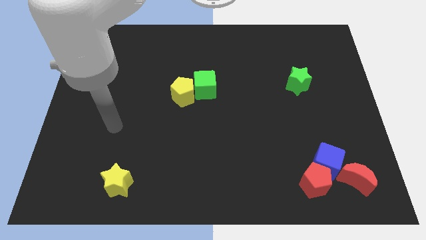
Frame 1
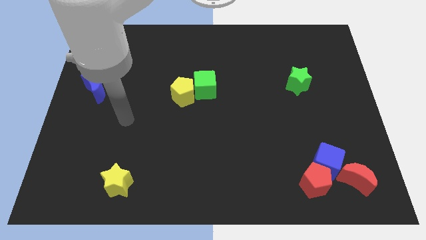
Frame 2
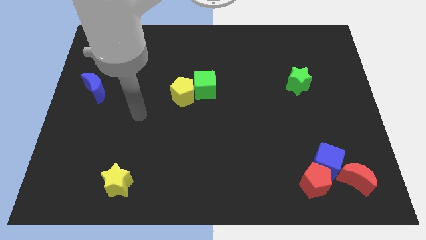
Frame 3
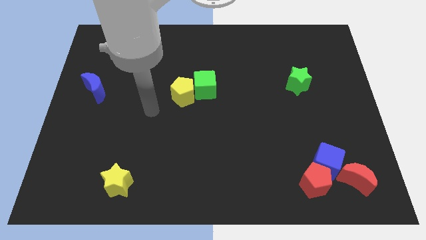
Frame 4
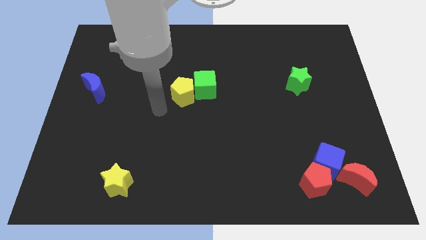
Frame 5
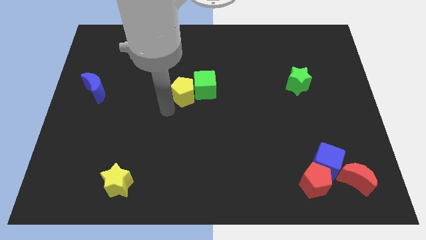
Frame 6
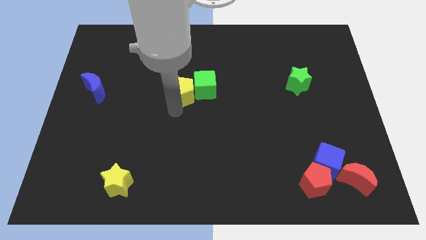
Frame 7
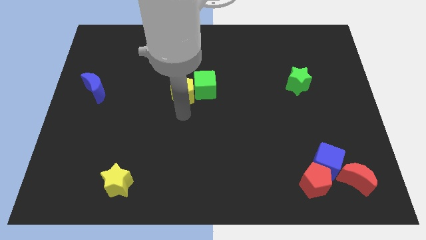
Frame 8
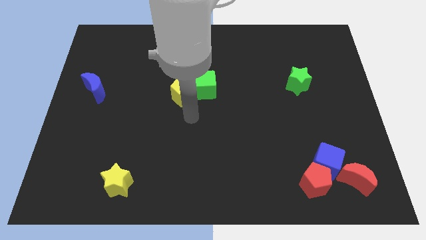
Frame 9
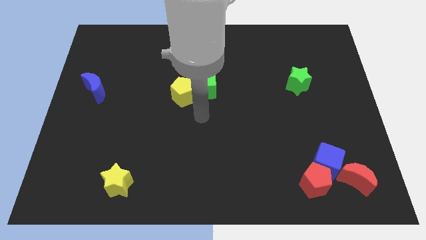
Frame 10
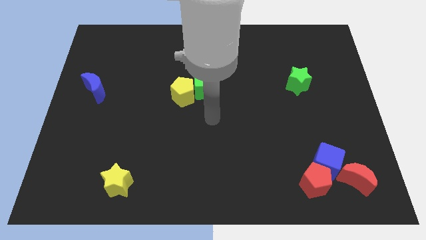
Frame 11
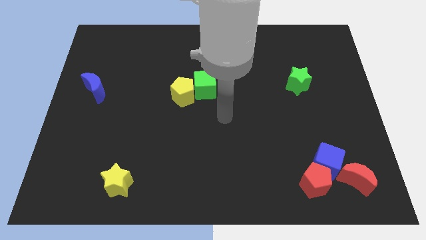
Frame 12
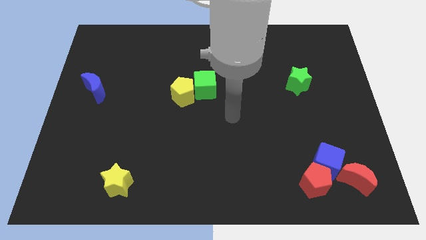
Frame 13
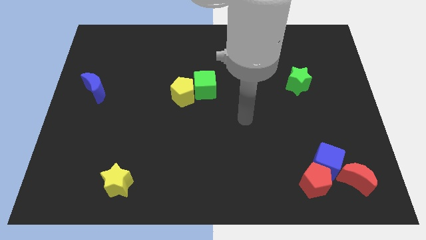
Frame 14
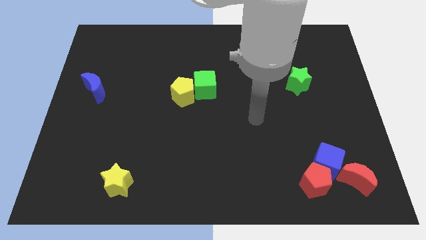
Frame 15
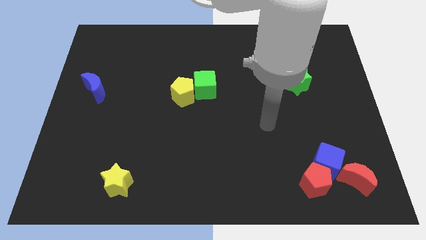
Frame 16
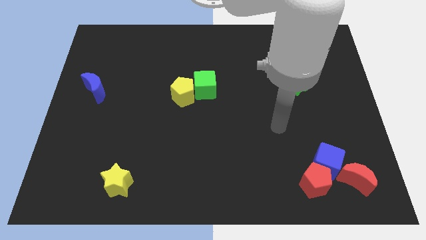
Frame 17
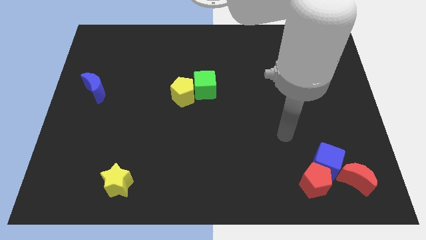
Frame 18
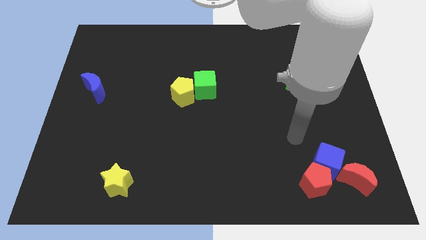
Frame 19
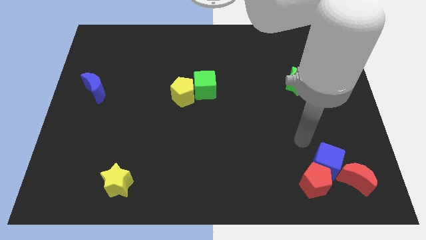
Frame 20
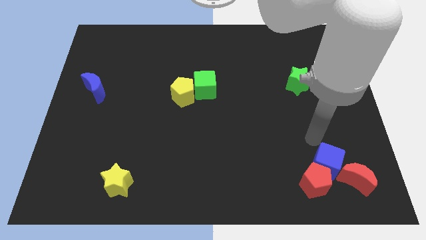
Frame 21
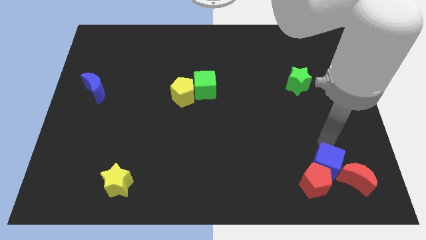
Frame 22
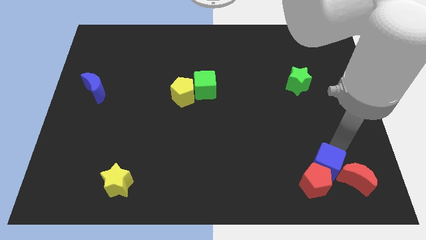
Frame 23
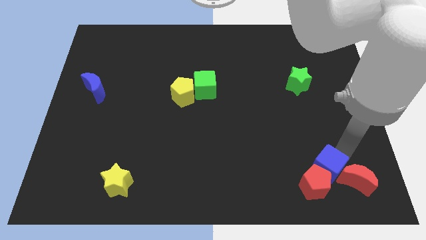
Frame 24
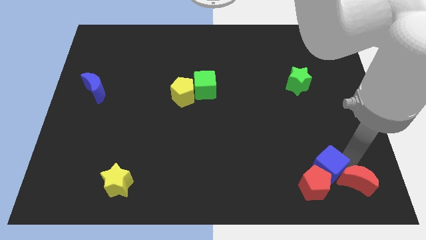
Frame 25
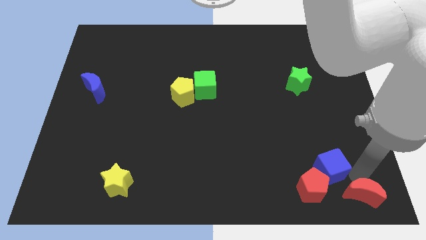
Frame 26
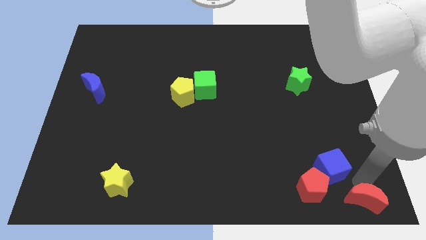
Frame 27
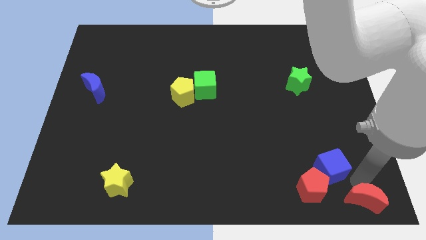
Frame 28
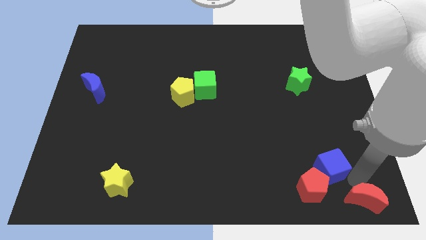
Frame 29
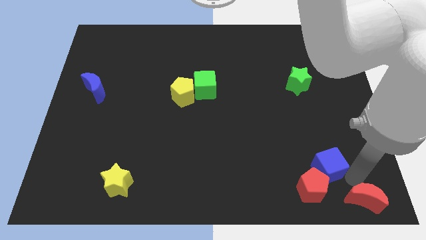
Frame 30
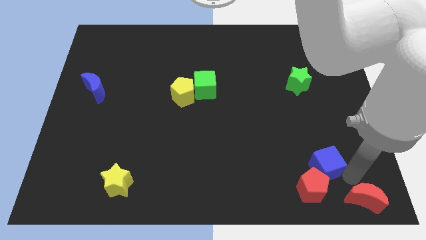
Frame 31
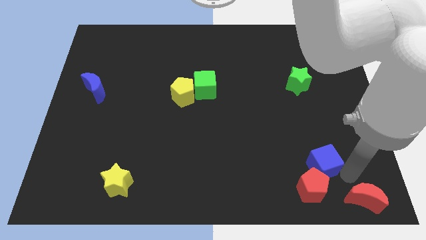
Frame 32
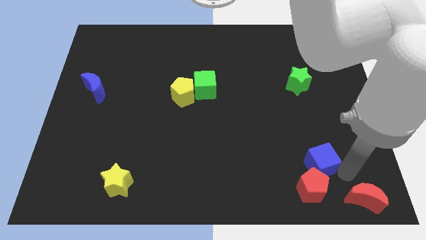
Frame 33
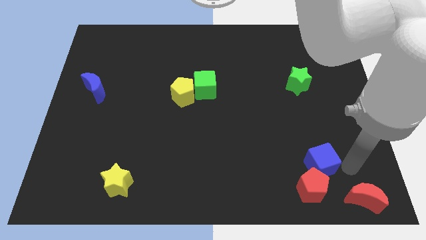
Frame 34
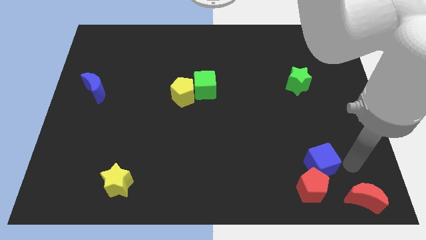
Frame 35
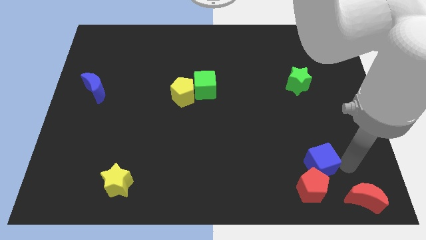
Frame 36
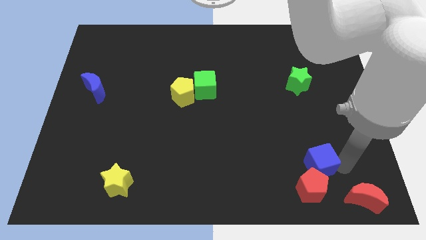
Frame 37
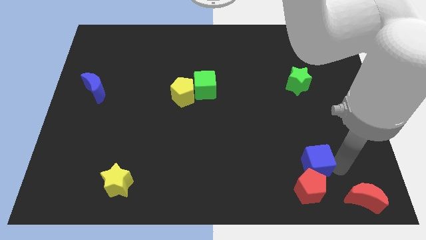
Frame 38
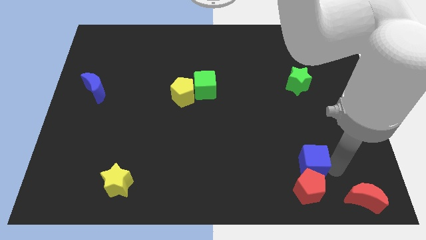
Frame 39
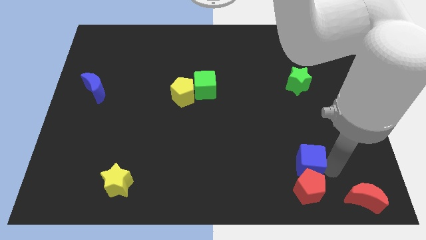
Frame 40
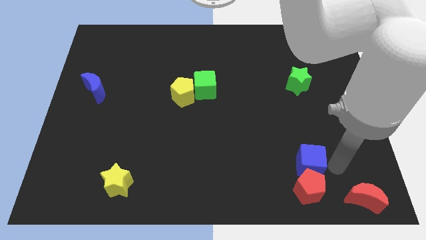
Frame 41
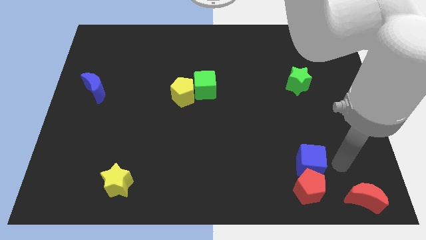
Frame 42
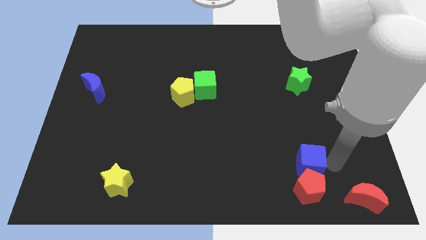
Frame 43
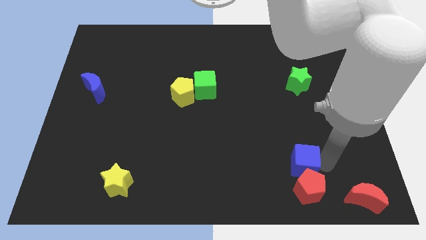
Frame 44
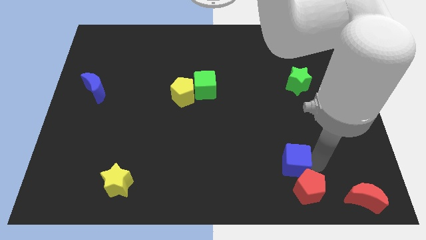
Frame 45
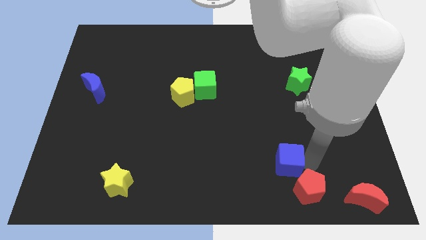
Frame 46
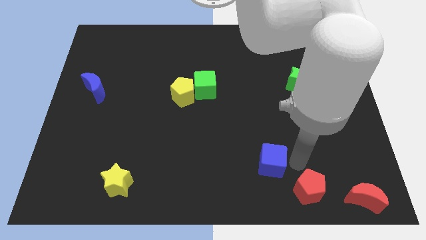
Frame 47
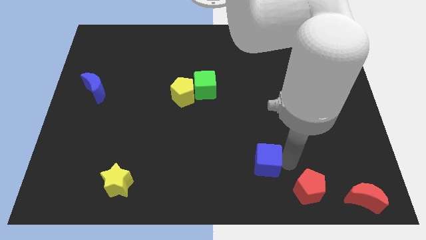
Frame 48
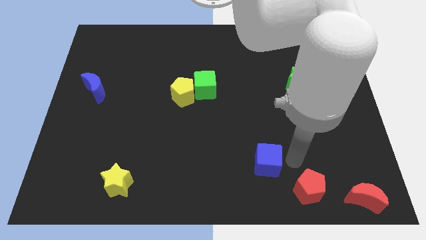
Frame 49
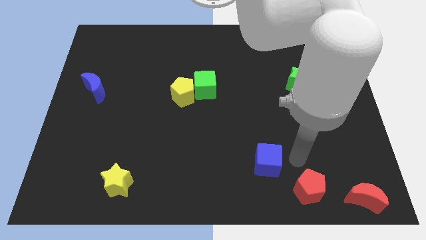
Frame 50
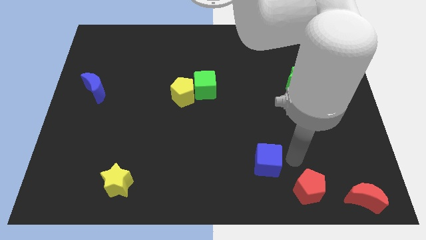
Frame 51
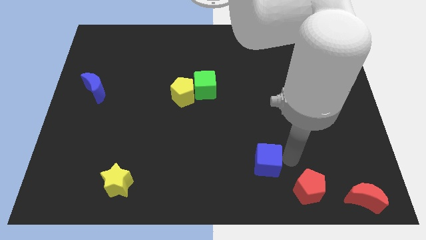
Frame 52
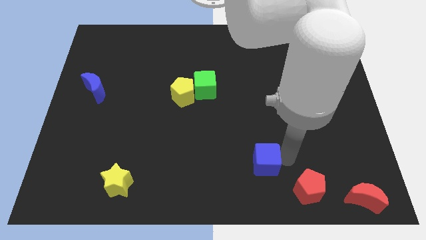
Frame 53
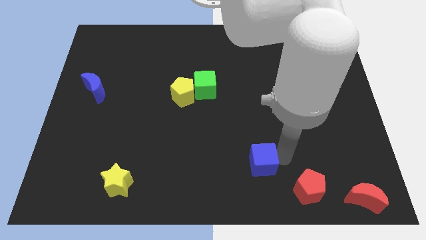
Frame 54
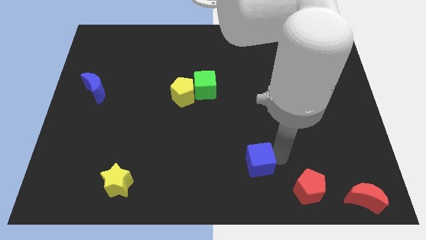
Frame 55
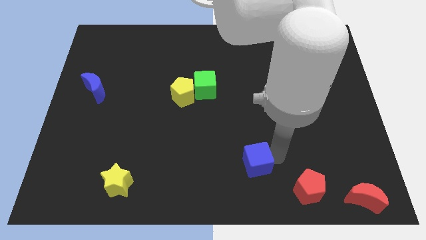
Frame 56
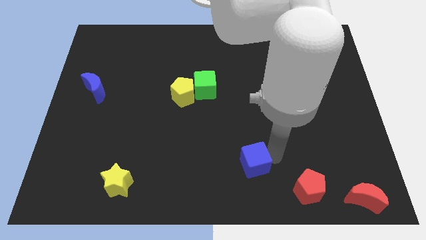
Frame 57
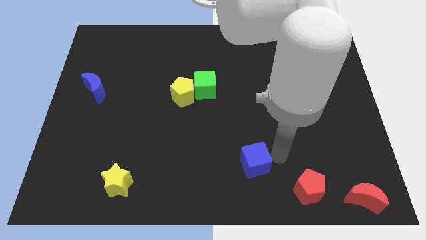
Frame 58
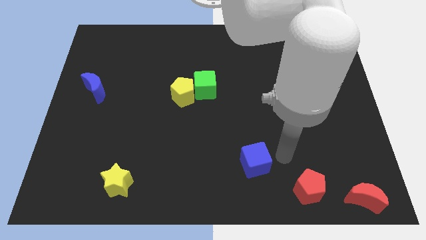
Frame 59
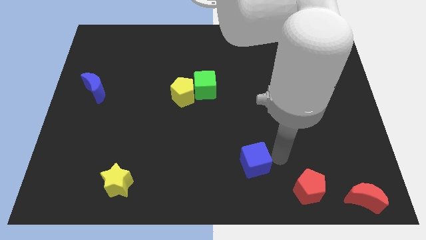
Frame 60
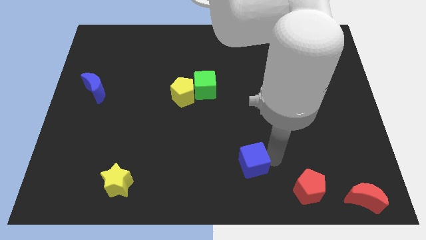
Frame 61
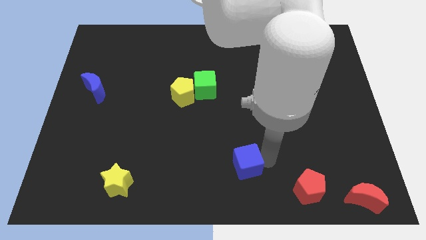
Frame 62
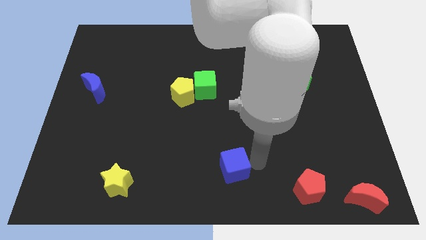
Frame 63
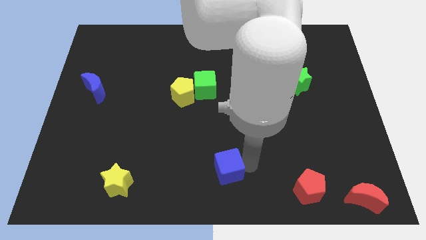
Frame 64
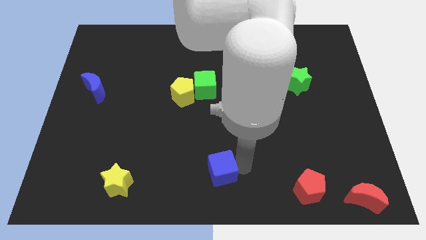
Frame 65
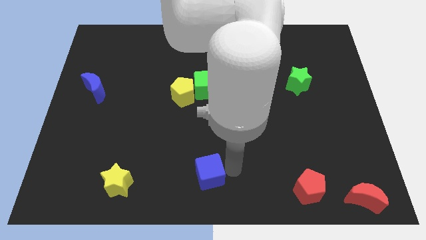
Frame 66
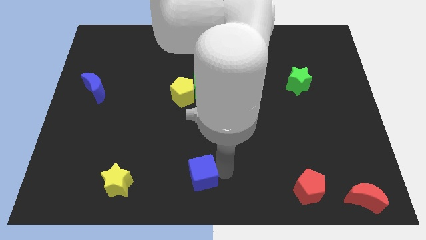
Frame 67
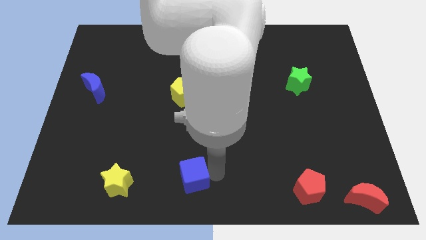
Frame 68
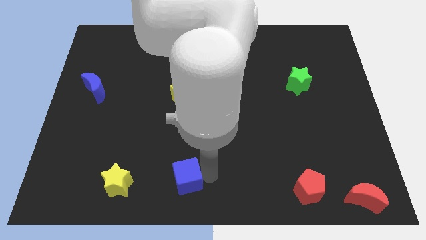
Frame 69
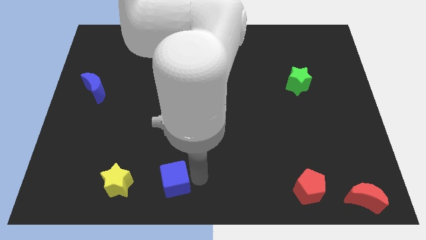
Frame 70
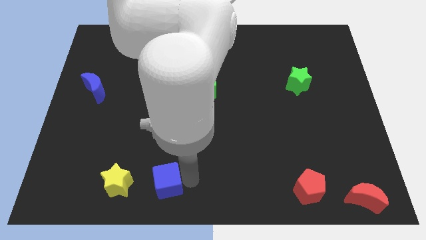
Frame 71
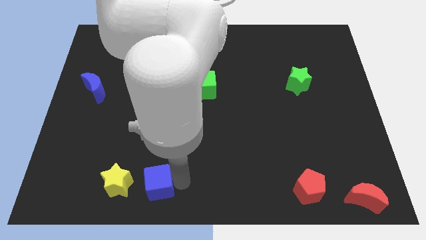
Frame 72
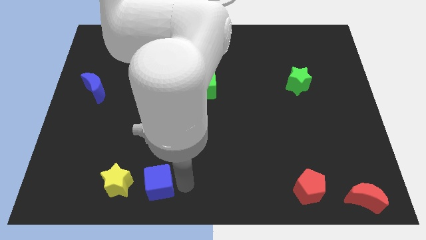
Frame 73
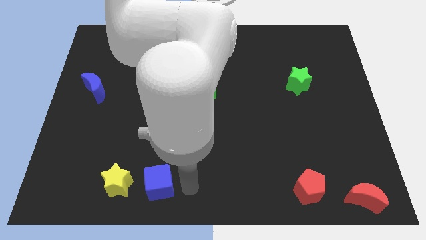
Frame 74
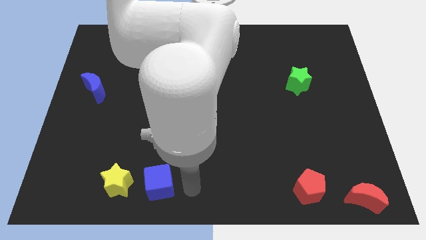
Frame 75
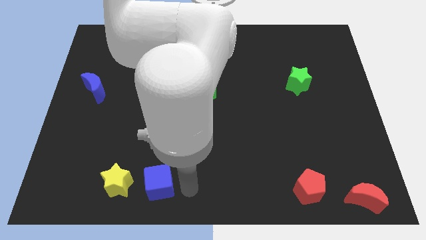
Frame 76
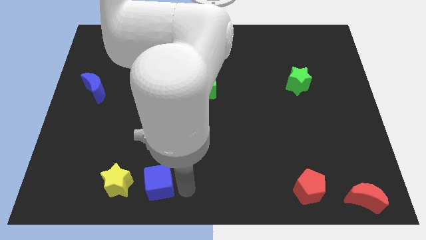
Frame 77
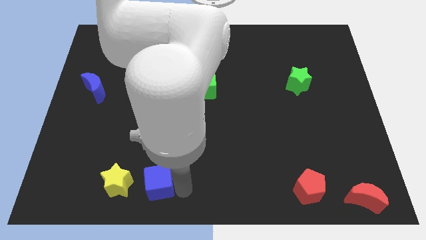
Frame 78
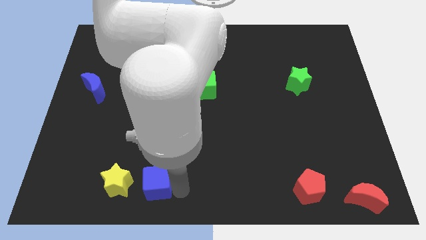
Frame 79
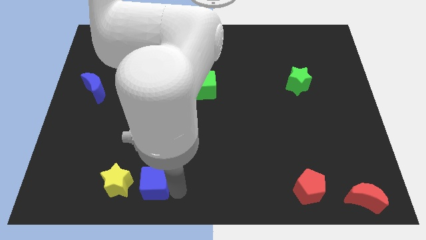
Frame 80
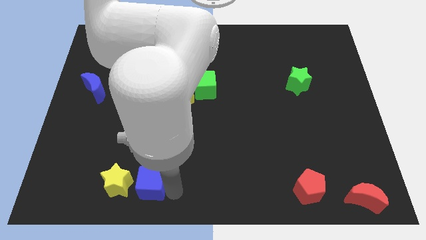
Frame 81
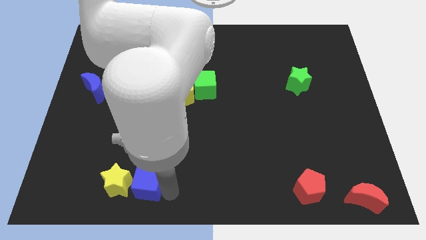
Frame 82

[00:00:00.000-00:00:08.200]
move the blue cube close to the yellow star
